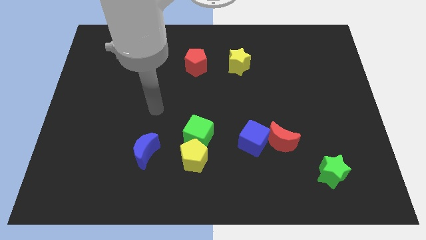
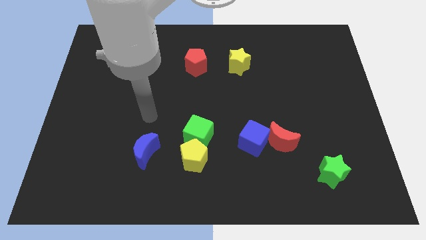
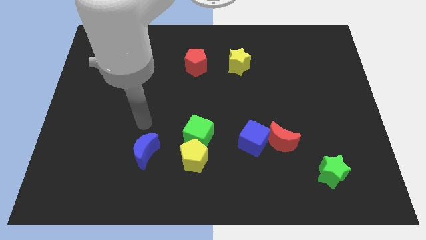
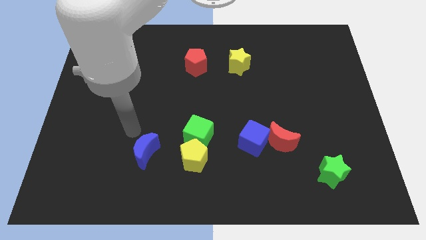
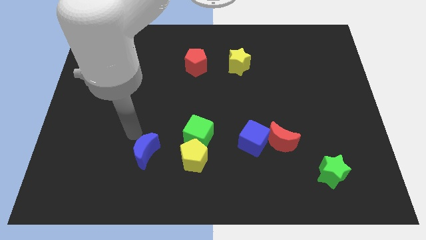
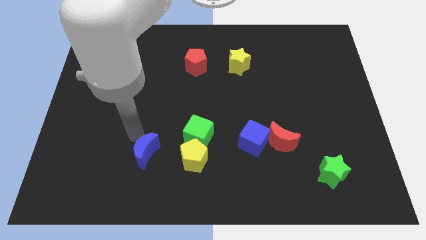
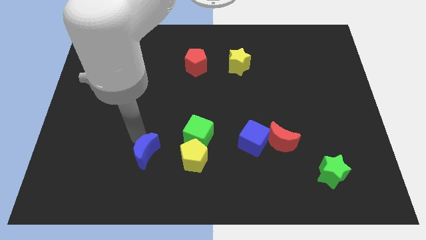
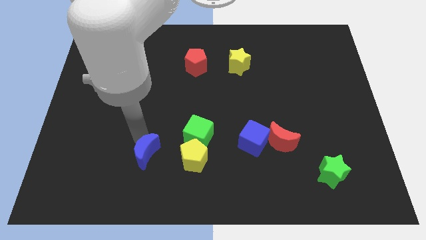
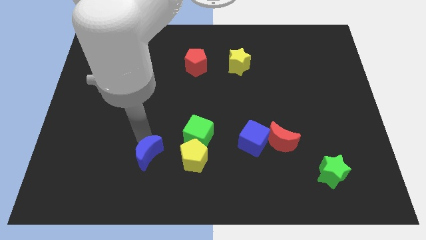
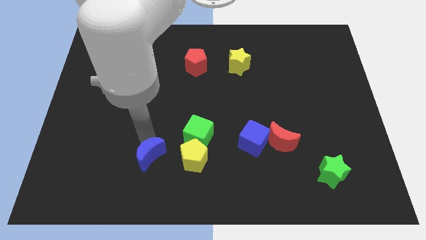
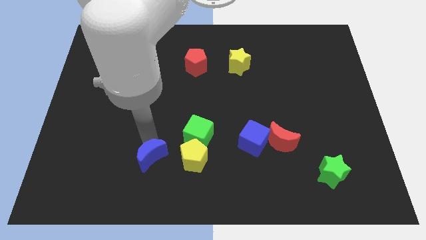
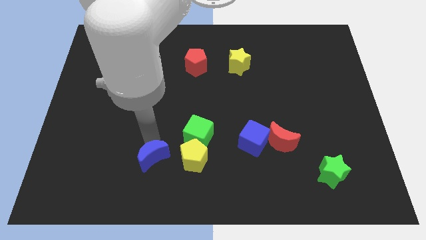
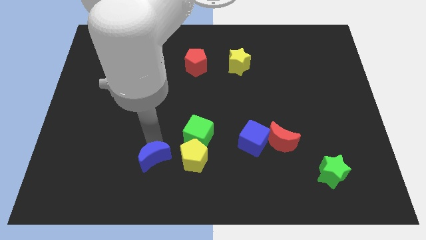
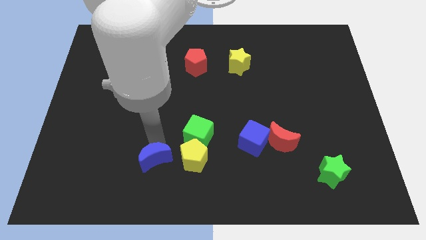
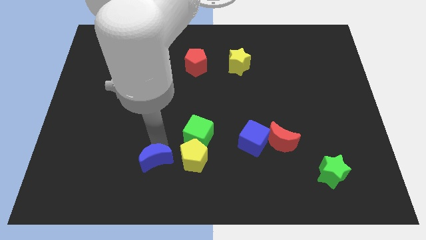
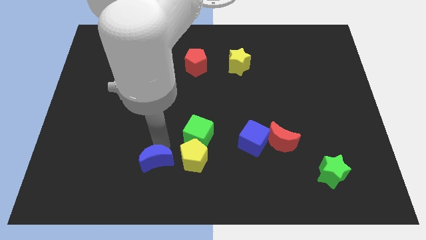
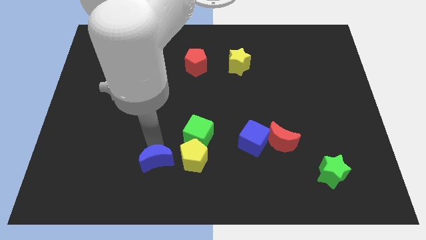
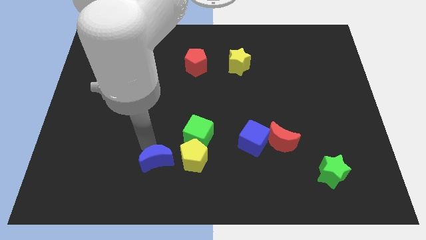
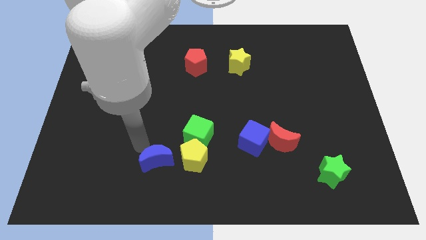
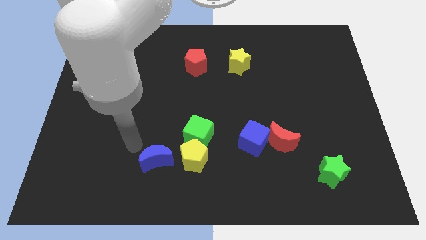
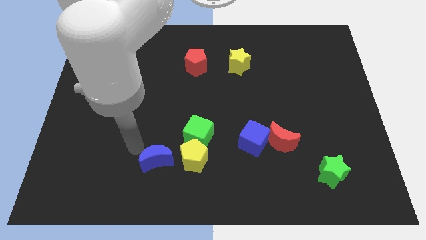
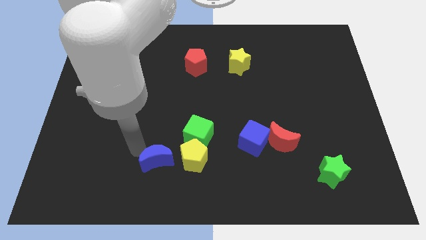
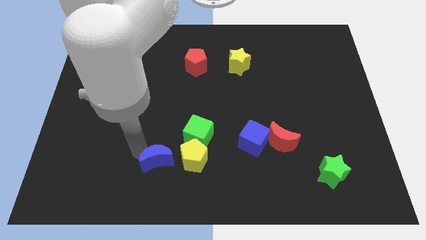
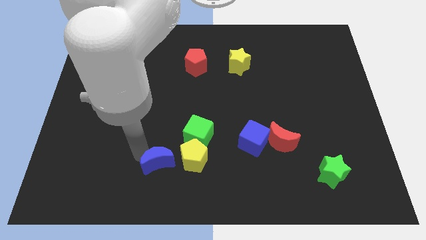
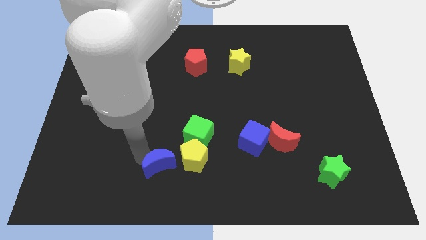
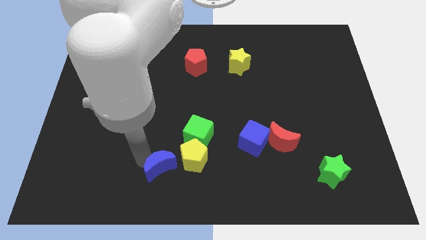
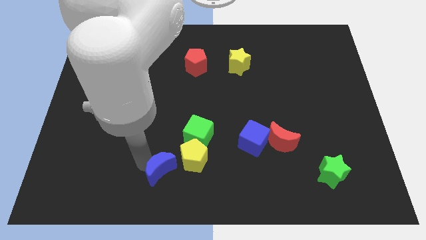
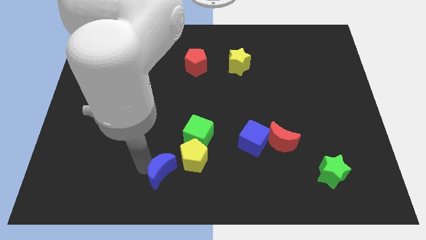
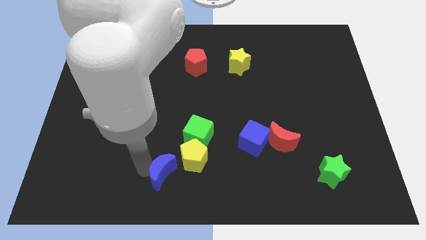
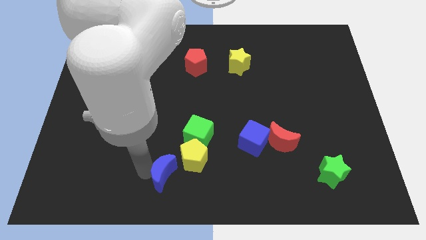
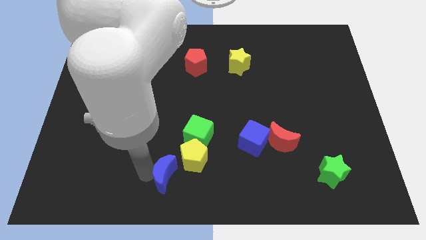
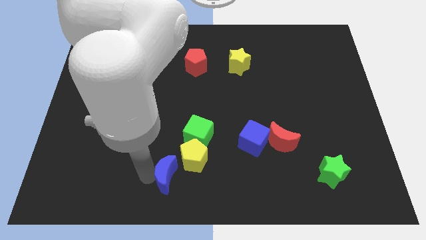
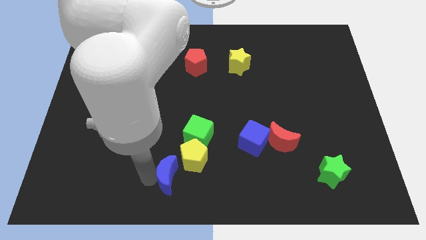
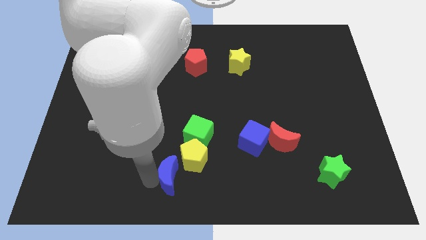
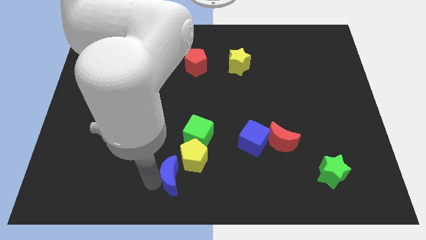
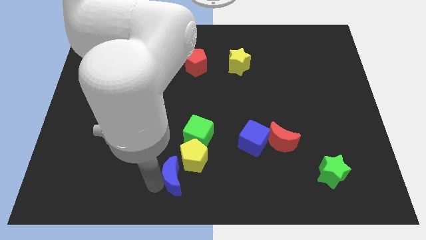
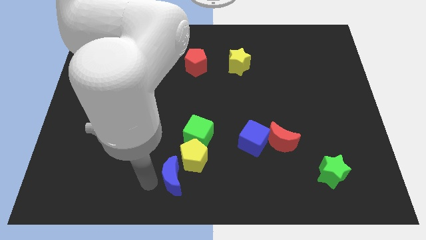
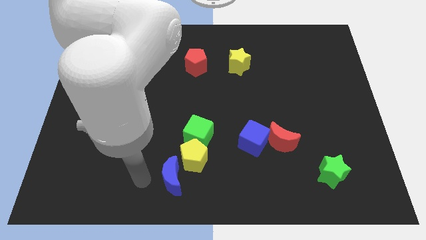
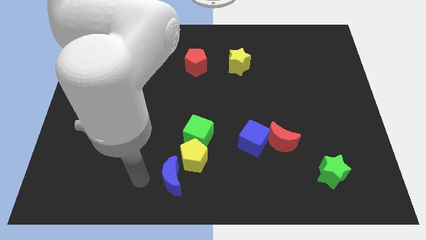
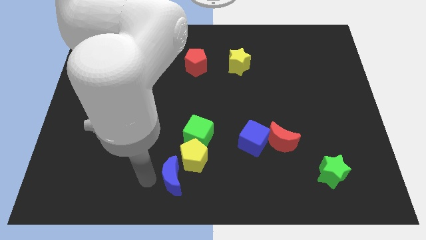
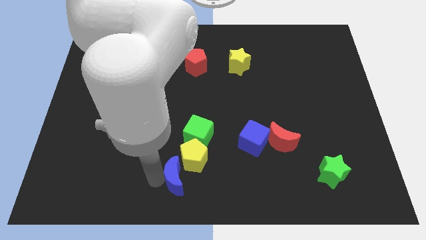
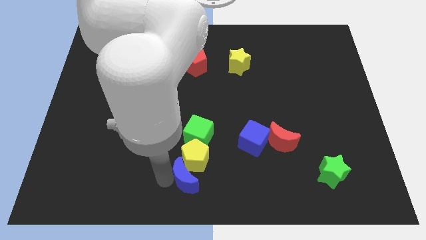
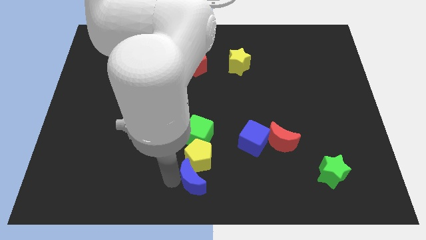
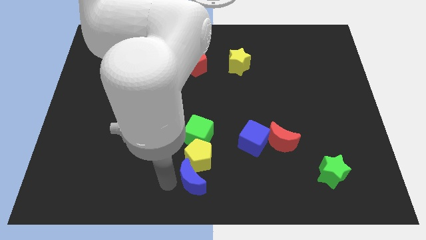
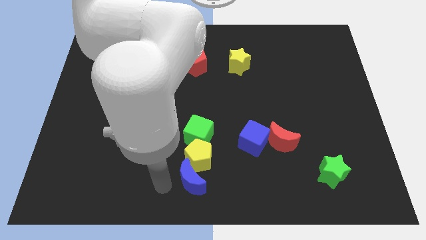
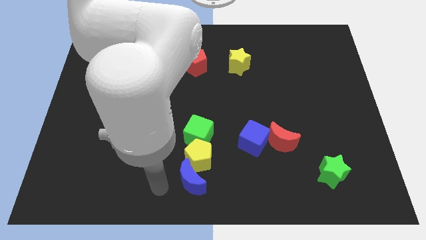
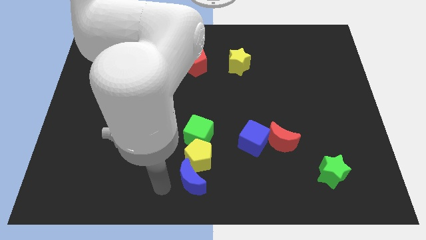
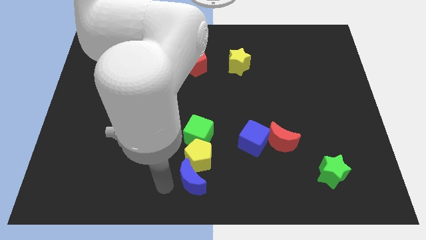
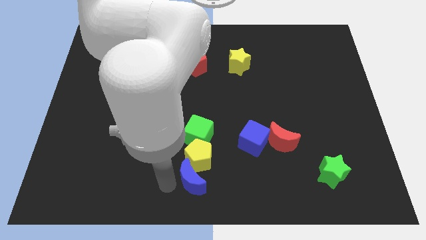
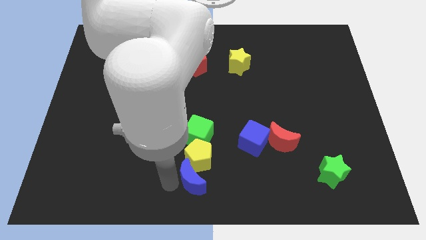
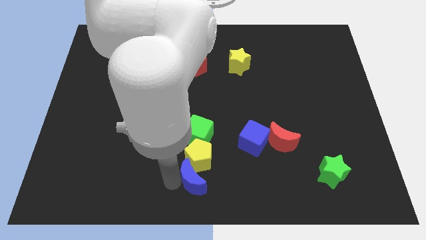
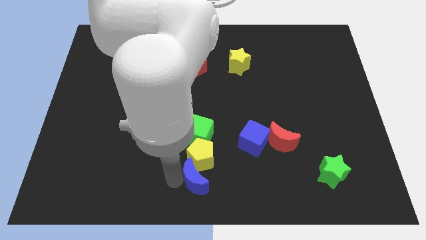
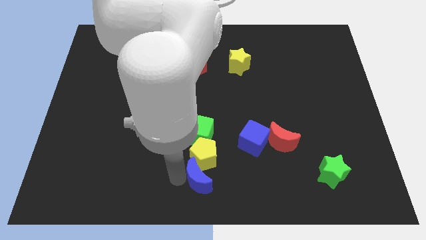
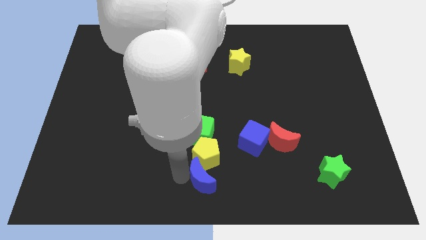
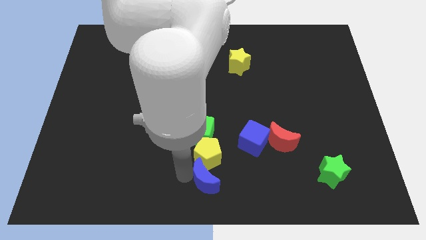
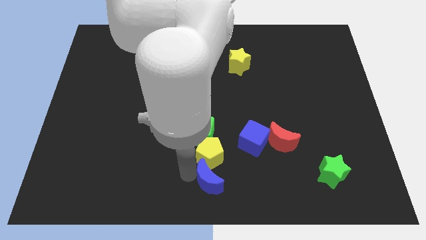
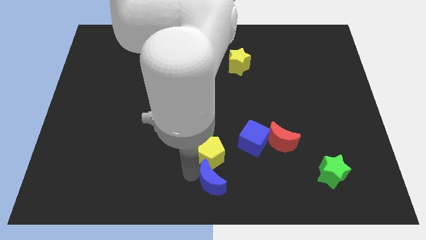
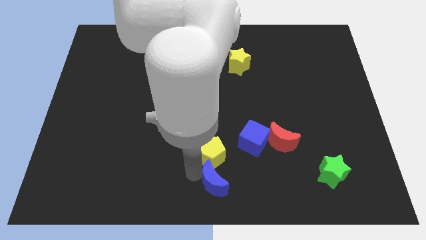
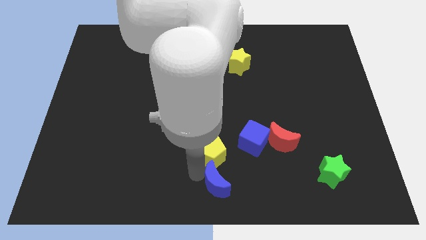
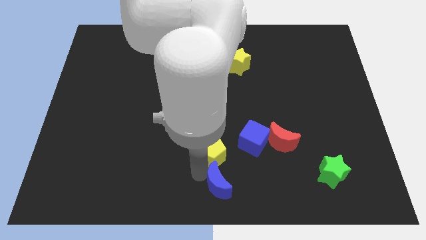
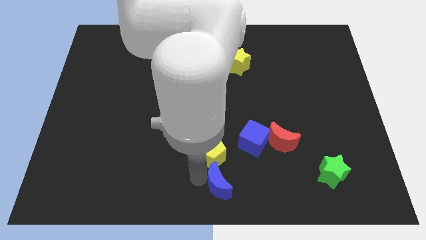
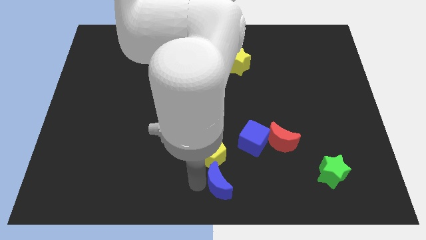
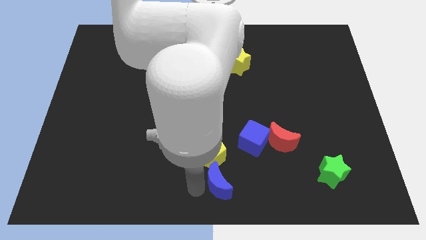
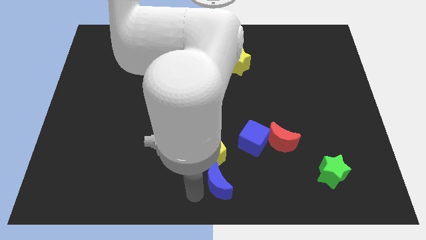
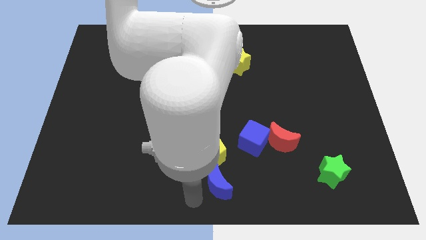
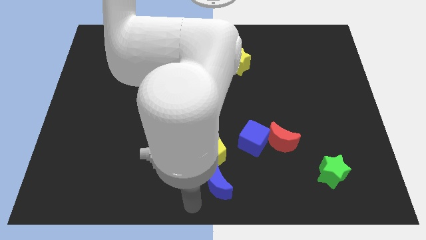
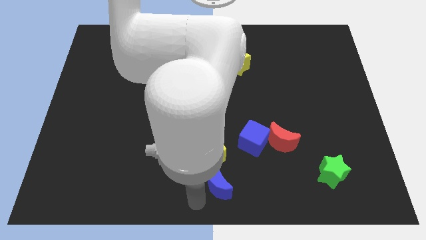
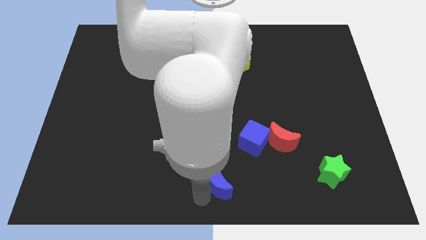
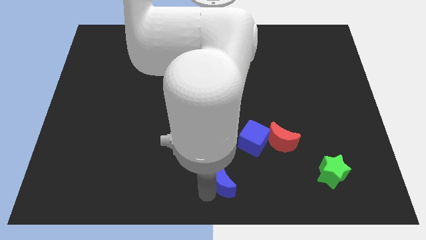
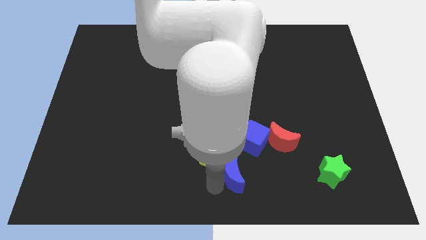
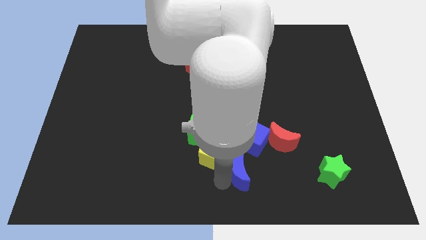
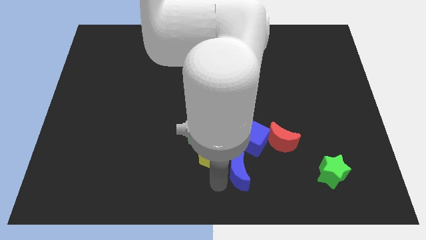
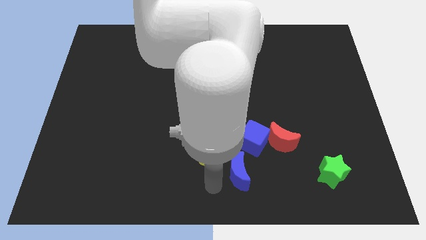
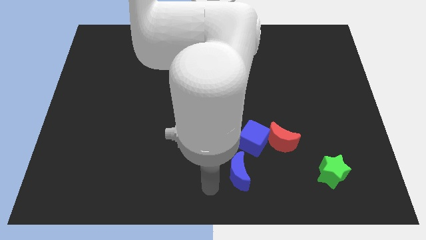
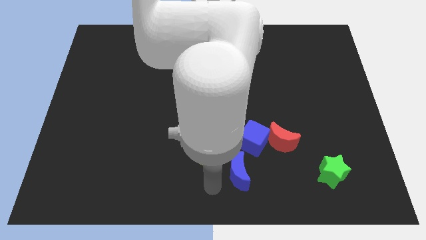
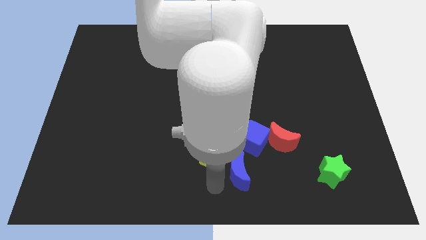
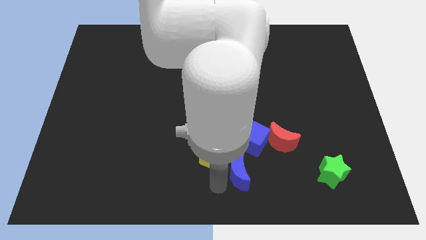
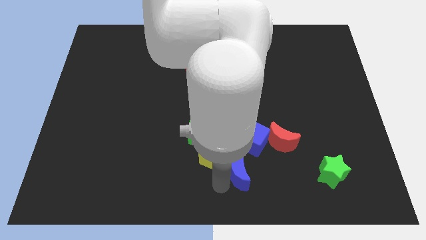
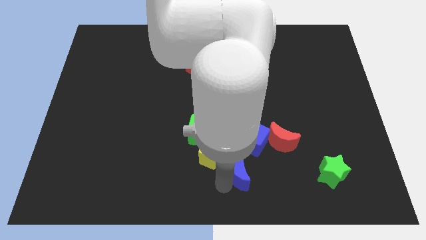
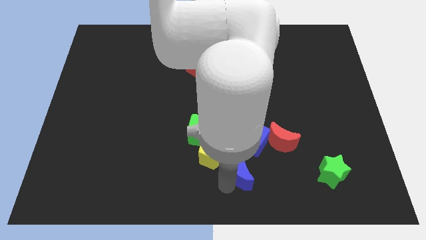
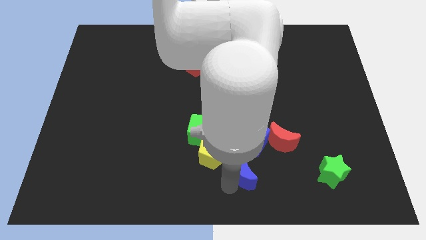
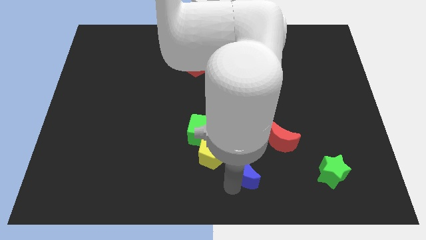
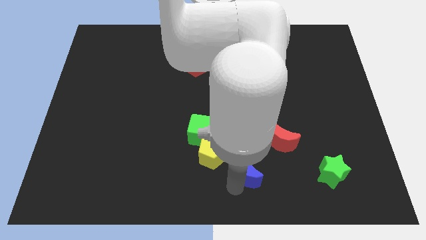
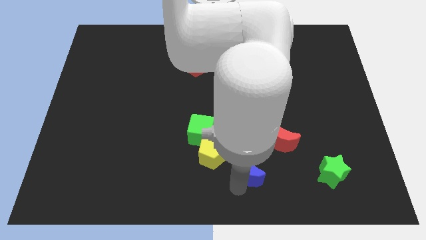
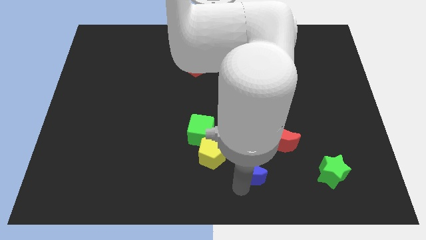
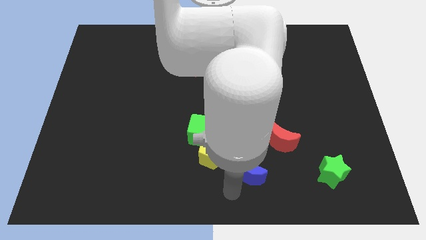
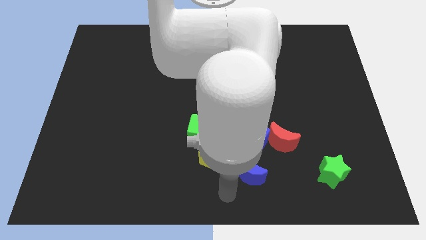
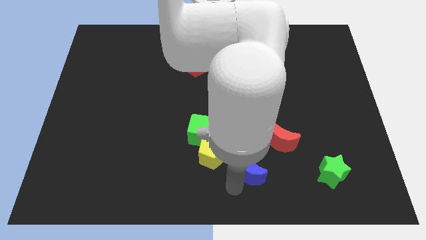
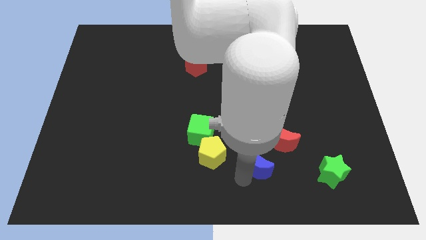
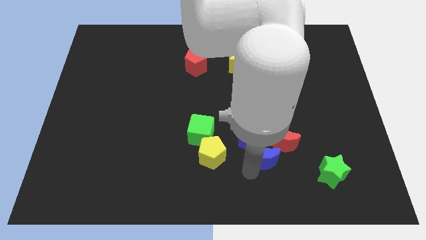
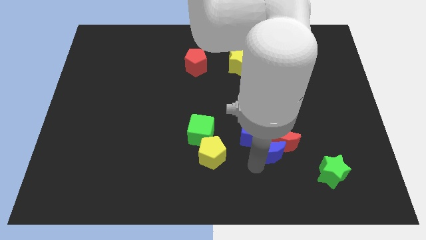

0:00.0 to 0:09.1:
move the blue moon close to the red moon
